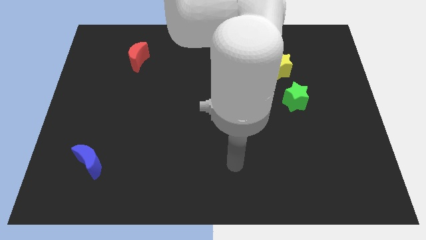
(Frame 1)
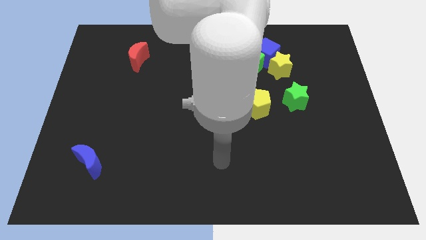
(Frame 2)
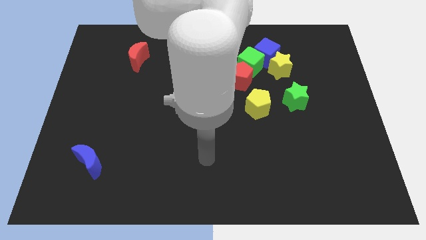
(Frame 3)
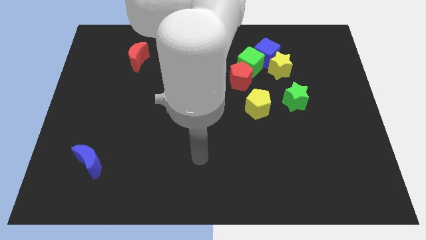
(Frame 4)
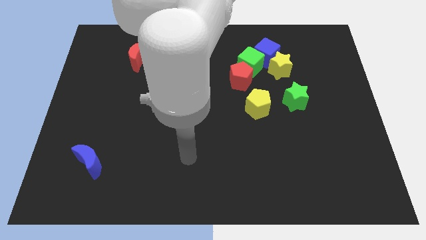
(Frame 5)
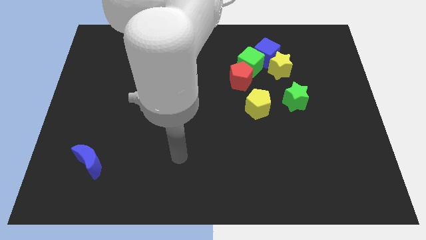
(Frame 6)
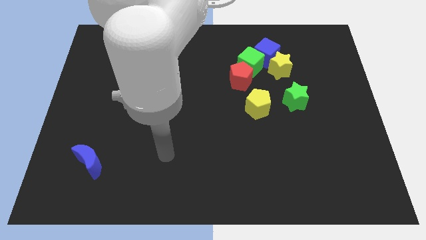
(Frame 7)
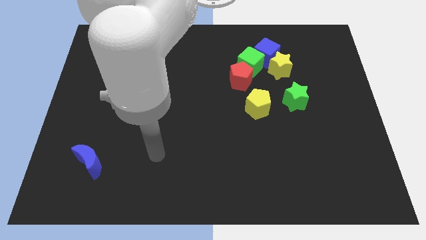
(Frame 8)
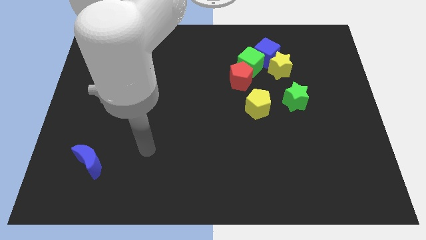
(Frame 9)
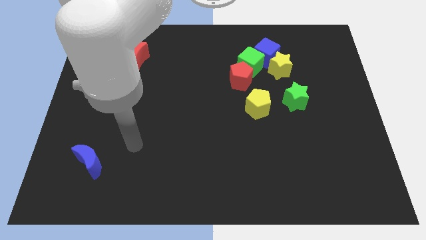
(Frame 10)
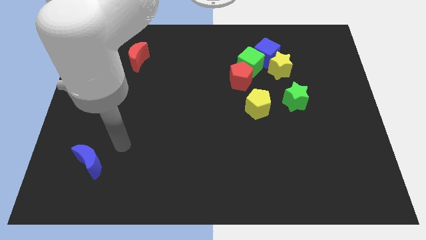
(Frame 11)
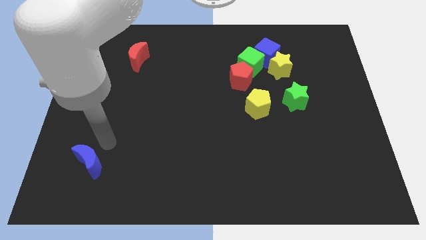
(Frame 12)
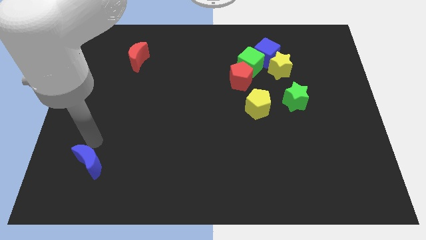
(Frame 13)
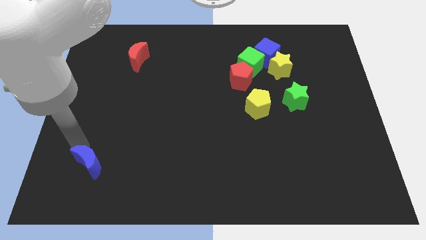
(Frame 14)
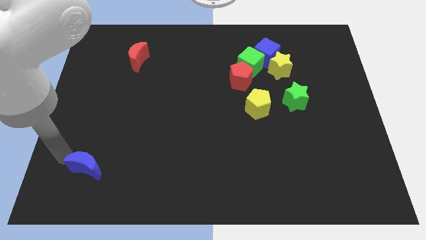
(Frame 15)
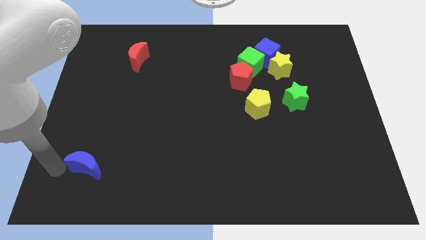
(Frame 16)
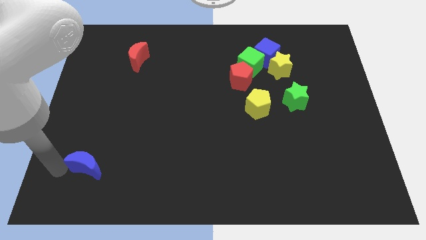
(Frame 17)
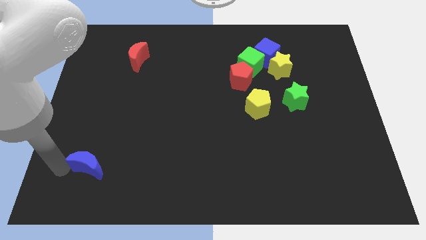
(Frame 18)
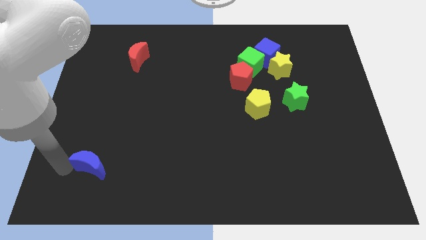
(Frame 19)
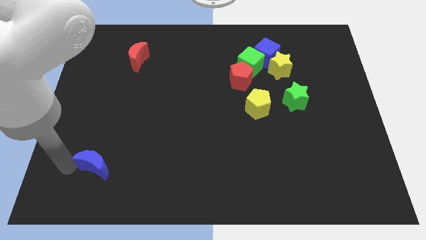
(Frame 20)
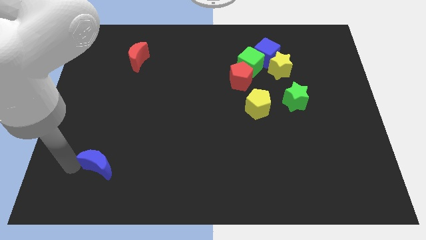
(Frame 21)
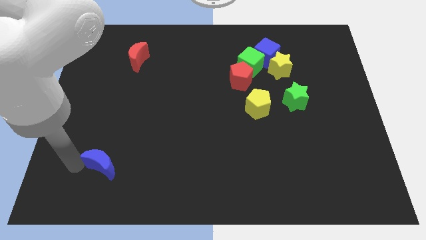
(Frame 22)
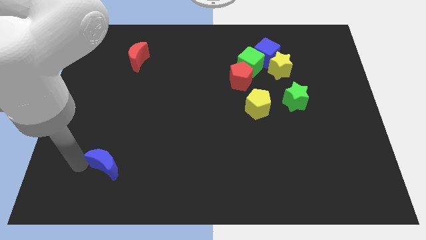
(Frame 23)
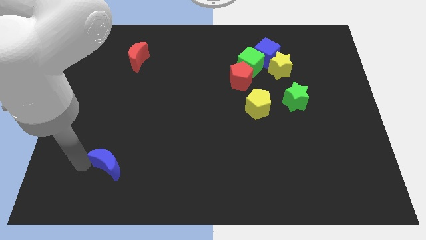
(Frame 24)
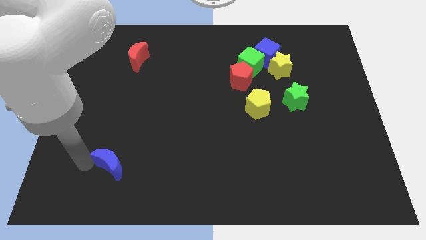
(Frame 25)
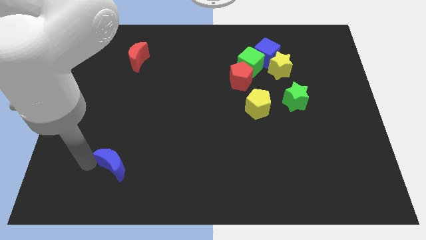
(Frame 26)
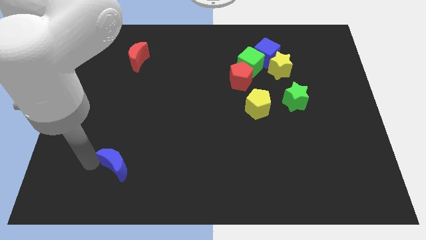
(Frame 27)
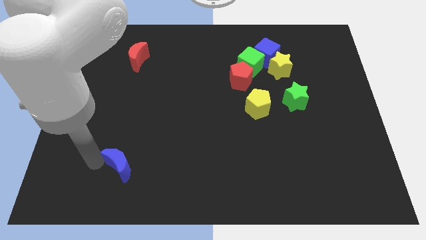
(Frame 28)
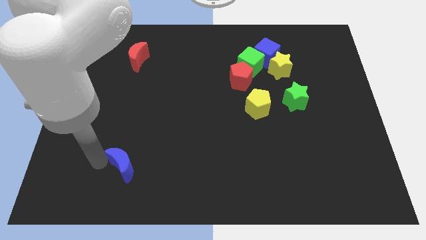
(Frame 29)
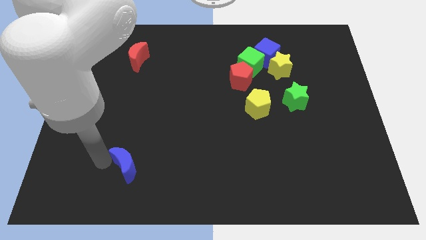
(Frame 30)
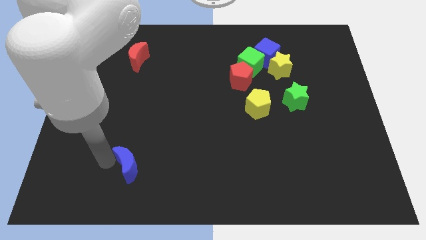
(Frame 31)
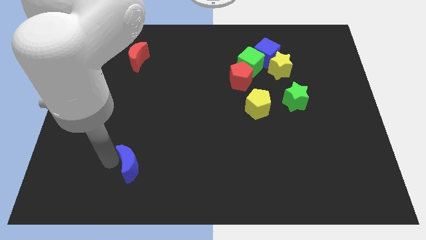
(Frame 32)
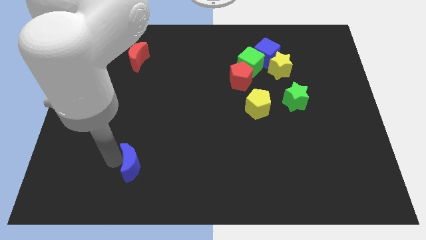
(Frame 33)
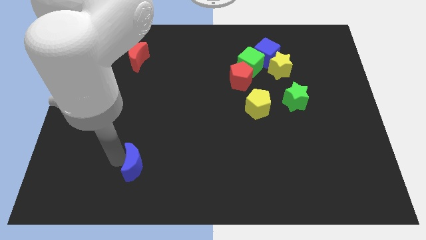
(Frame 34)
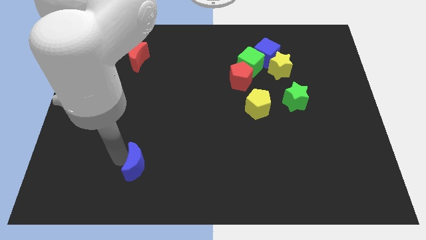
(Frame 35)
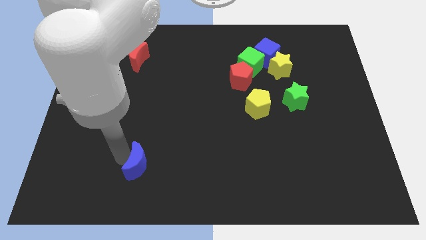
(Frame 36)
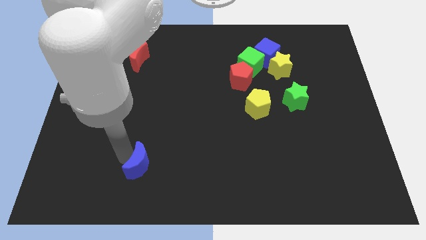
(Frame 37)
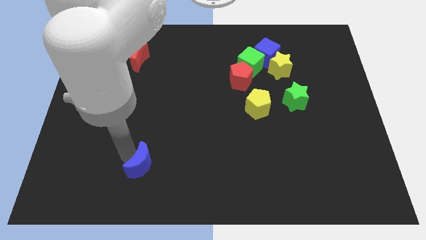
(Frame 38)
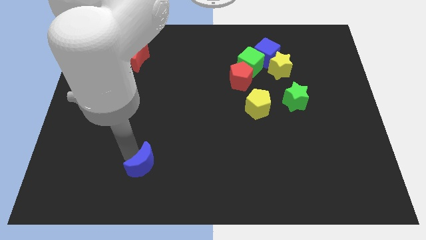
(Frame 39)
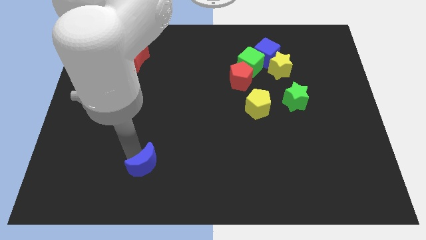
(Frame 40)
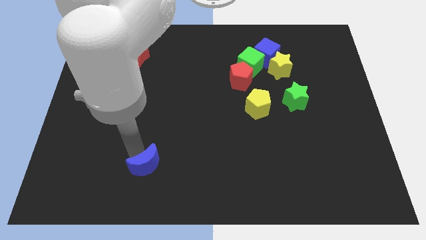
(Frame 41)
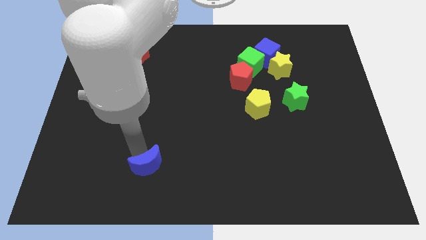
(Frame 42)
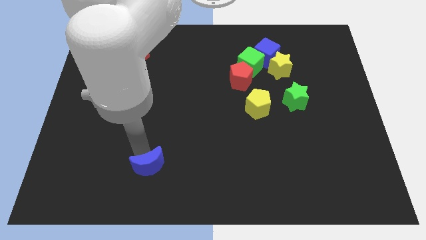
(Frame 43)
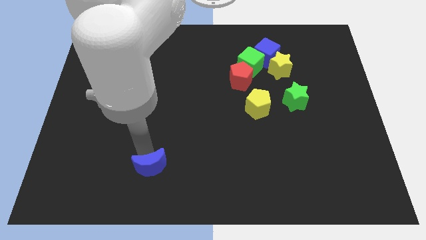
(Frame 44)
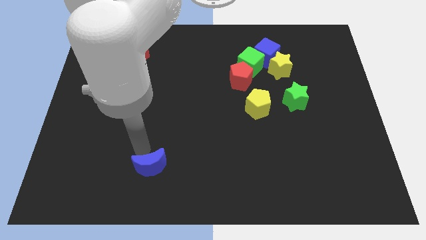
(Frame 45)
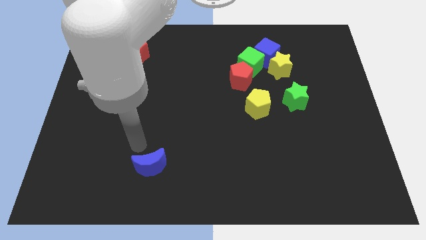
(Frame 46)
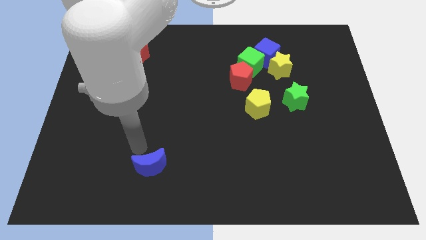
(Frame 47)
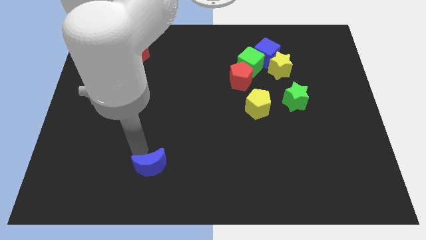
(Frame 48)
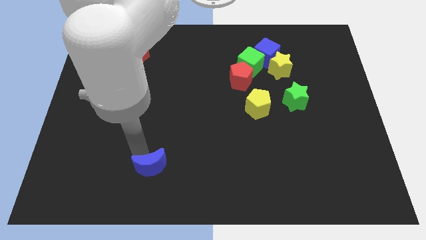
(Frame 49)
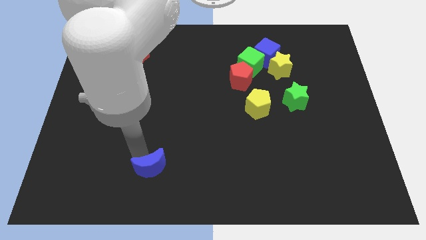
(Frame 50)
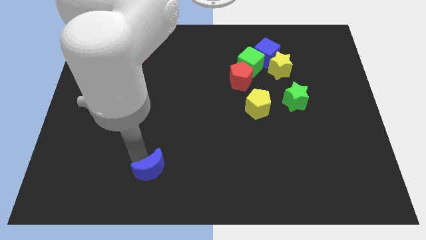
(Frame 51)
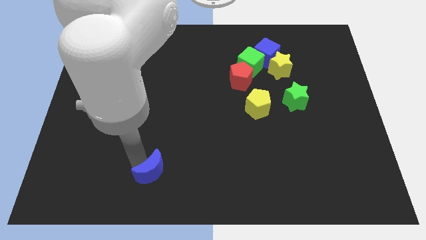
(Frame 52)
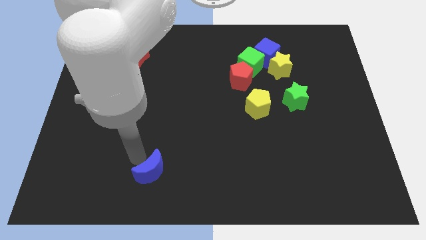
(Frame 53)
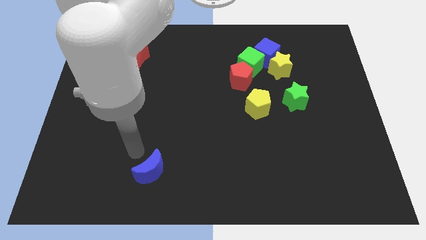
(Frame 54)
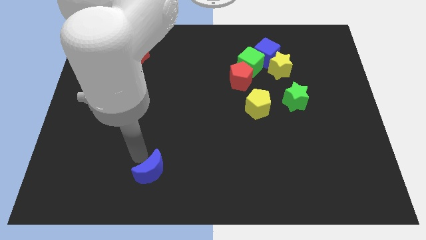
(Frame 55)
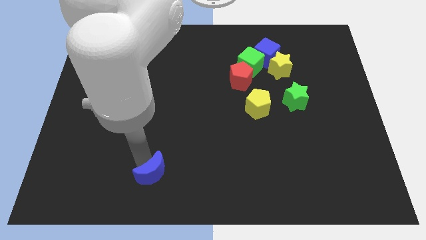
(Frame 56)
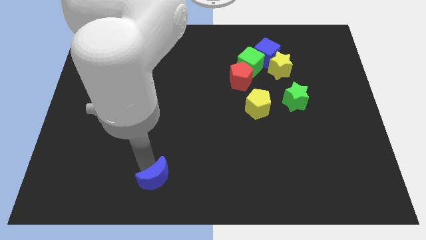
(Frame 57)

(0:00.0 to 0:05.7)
put the blue moon to the bottom
